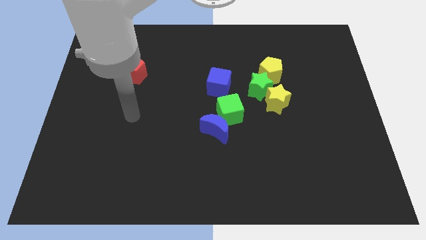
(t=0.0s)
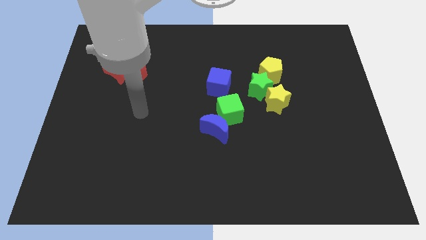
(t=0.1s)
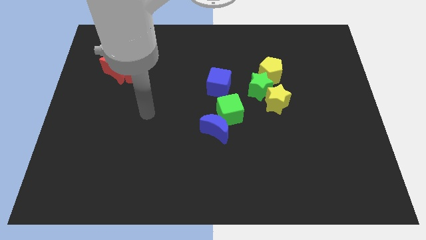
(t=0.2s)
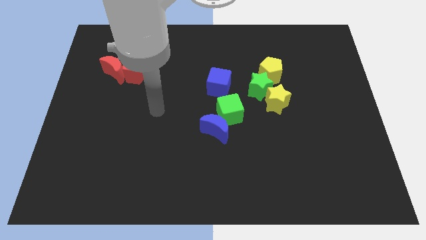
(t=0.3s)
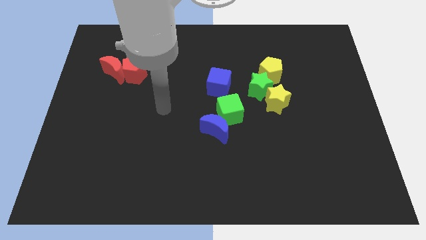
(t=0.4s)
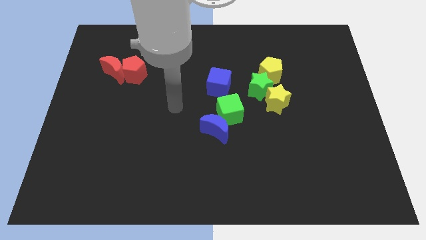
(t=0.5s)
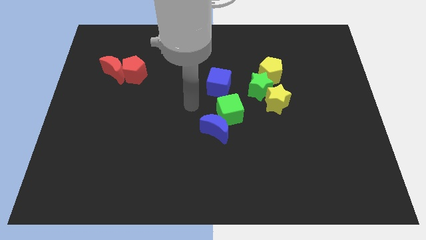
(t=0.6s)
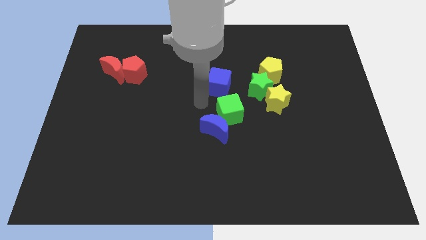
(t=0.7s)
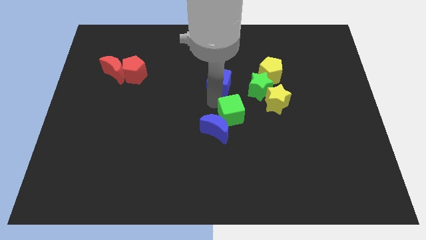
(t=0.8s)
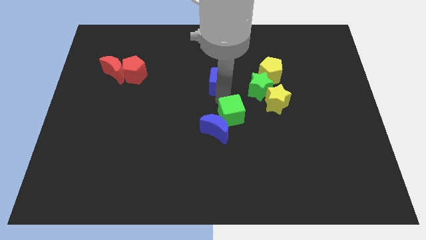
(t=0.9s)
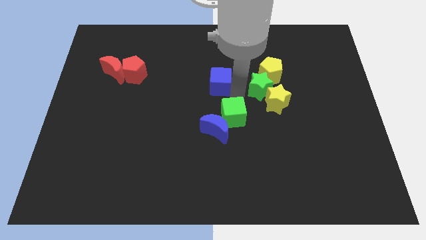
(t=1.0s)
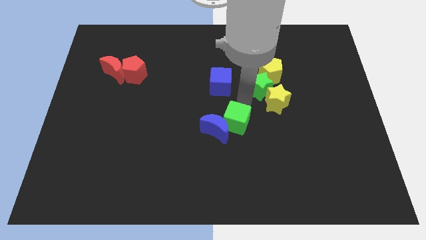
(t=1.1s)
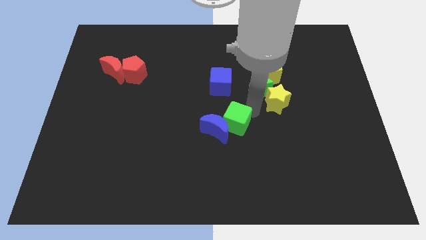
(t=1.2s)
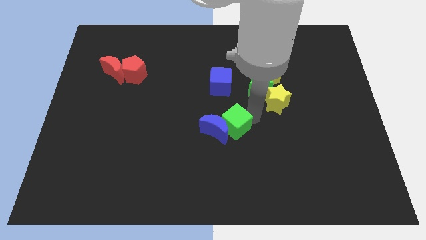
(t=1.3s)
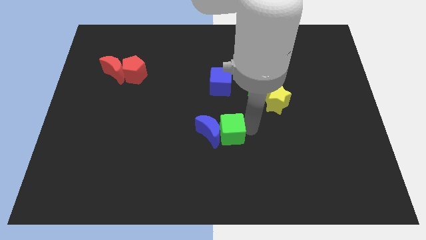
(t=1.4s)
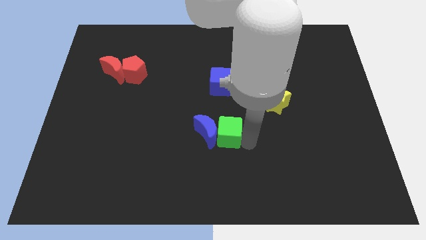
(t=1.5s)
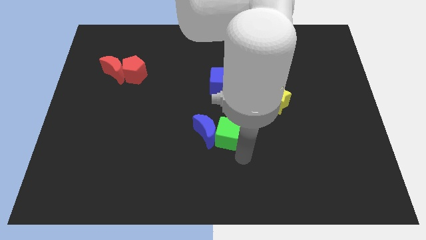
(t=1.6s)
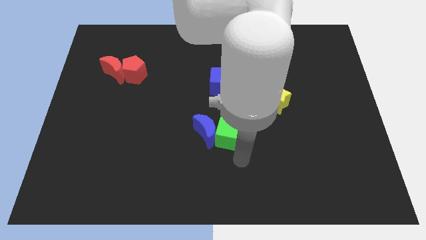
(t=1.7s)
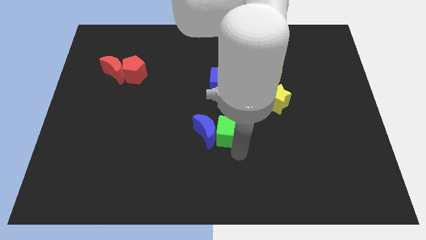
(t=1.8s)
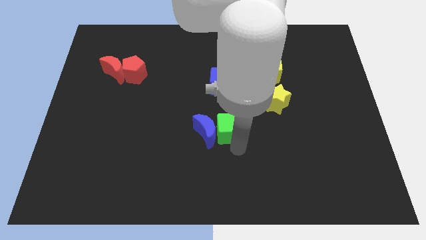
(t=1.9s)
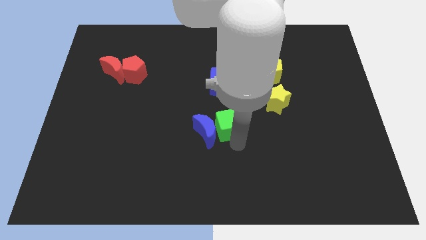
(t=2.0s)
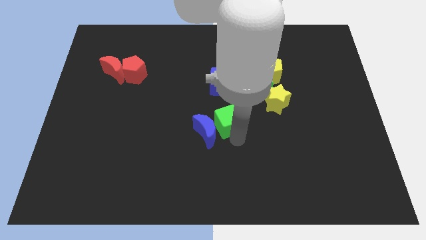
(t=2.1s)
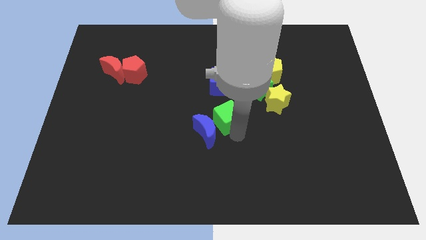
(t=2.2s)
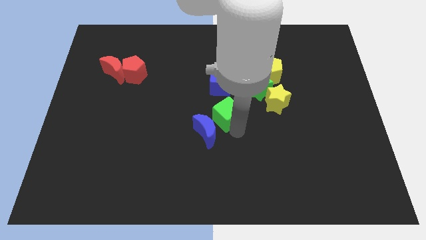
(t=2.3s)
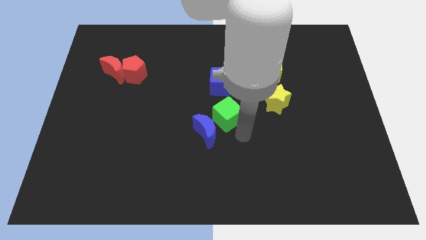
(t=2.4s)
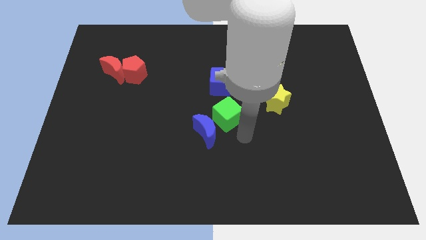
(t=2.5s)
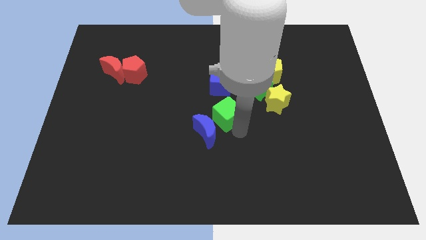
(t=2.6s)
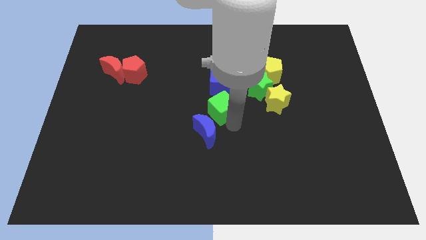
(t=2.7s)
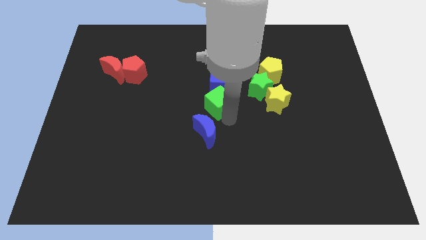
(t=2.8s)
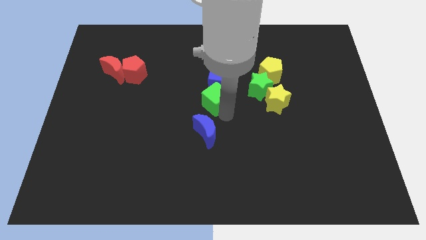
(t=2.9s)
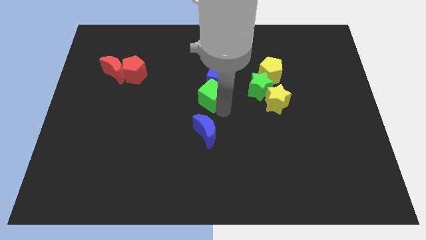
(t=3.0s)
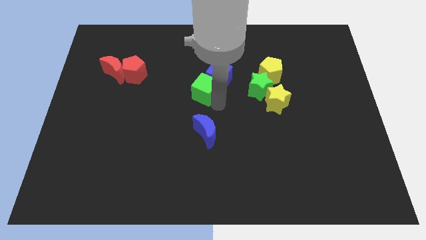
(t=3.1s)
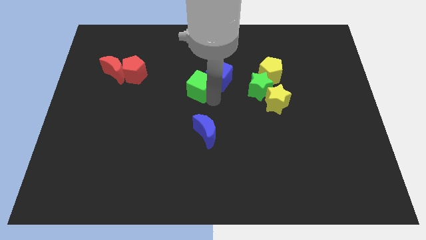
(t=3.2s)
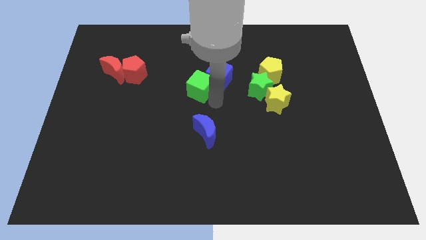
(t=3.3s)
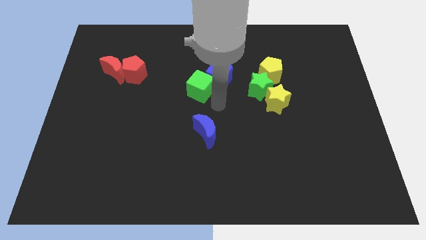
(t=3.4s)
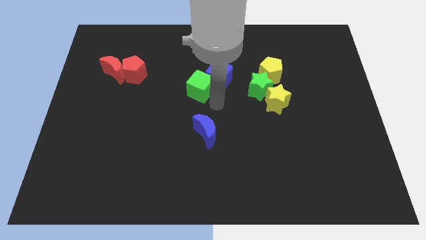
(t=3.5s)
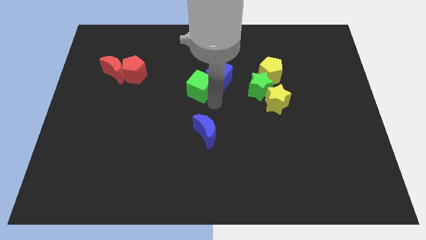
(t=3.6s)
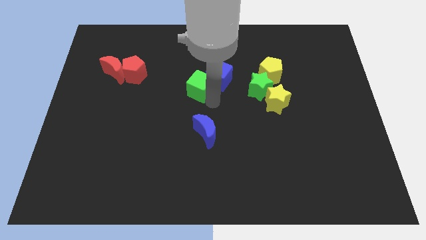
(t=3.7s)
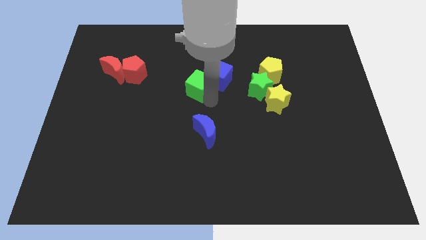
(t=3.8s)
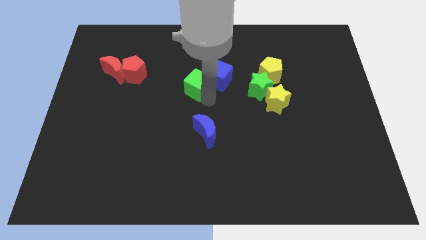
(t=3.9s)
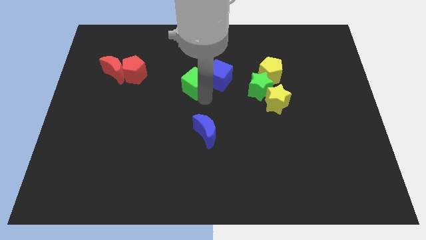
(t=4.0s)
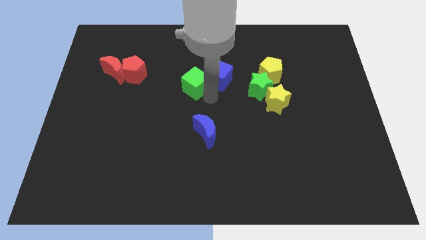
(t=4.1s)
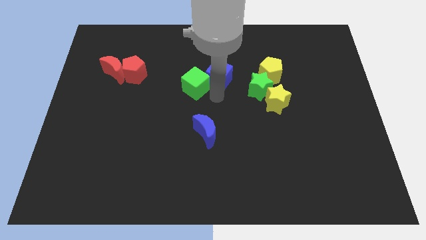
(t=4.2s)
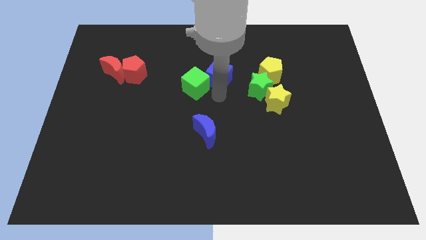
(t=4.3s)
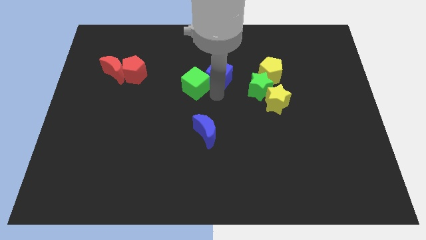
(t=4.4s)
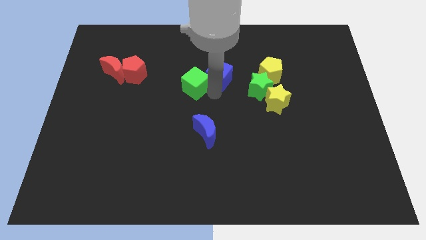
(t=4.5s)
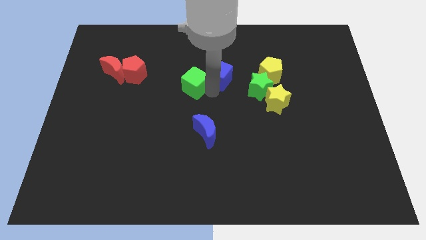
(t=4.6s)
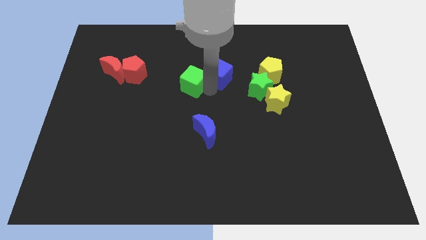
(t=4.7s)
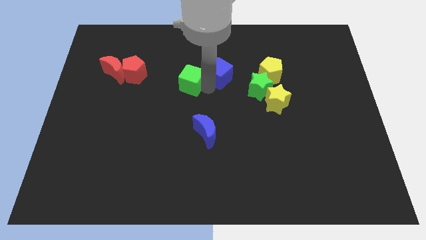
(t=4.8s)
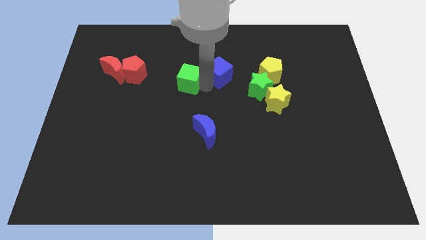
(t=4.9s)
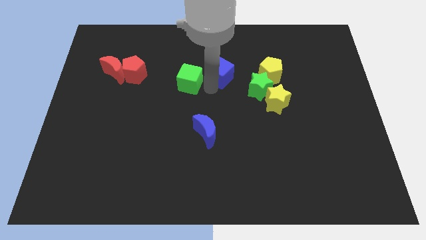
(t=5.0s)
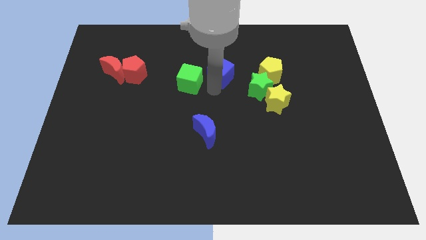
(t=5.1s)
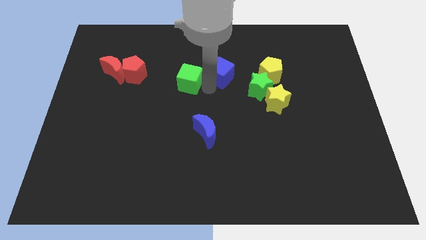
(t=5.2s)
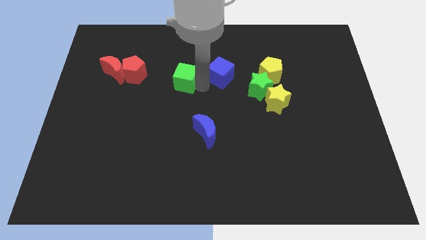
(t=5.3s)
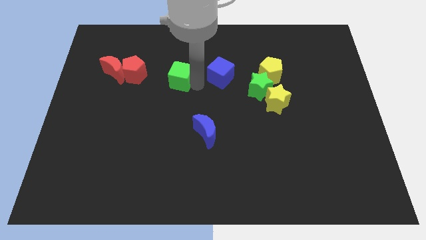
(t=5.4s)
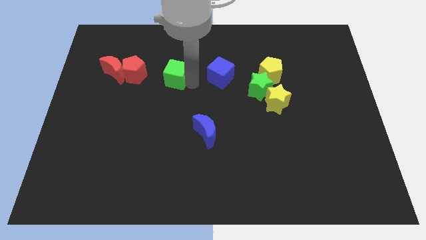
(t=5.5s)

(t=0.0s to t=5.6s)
put the green cube to the right of the red moon

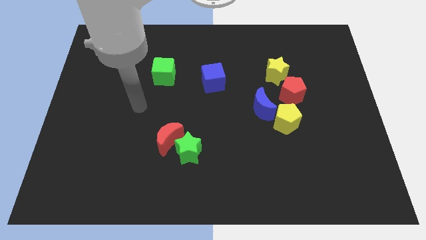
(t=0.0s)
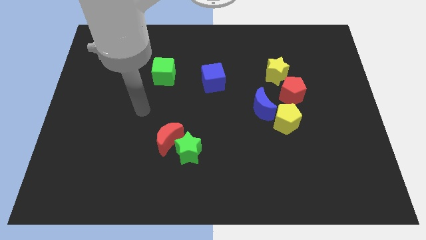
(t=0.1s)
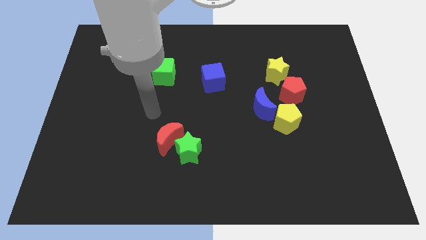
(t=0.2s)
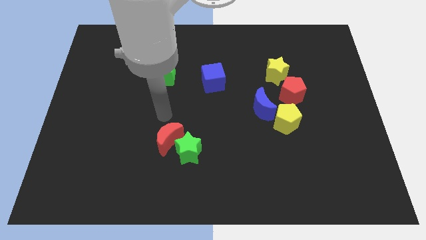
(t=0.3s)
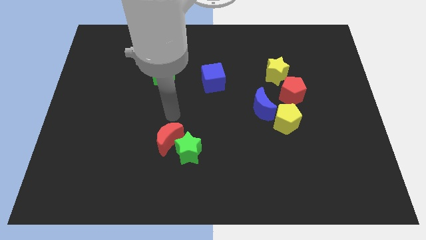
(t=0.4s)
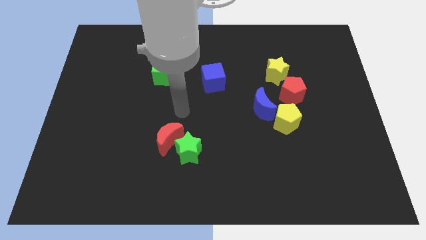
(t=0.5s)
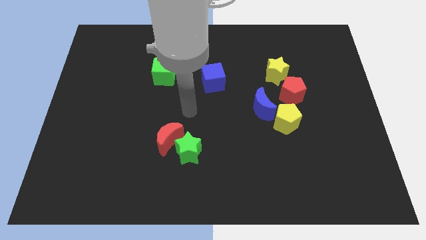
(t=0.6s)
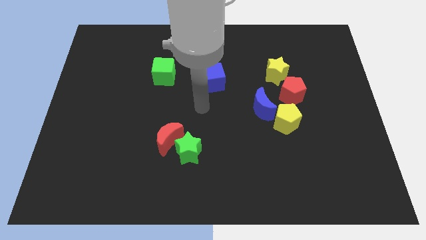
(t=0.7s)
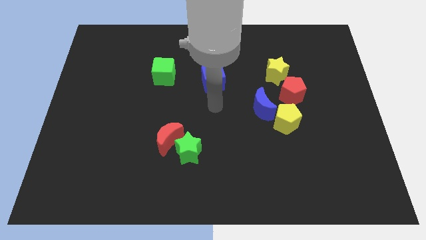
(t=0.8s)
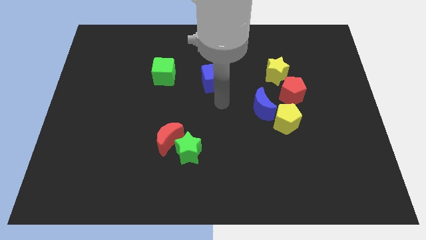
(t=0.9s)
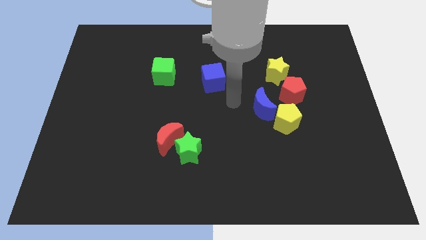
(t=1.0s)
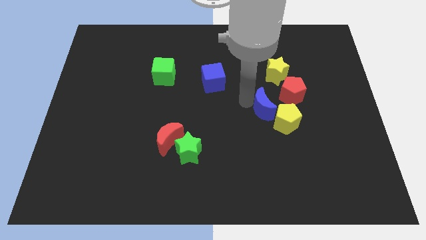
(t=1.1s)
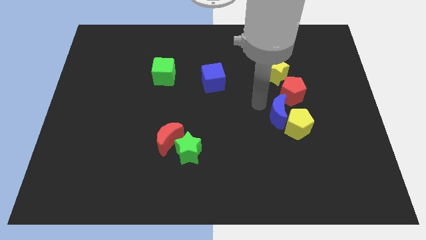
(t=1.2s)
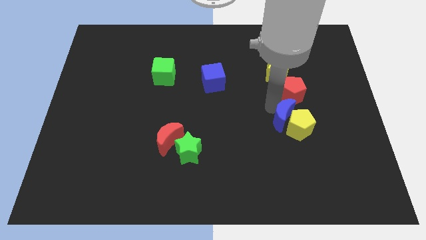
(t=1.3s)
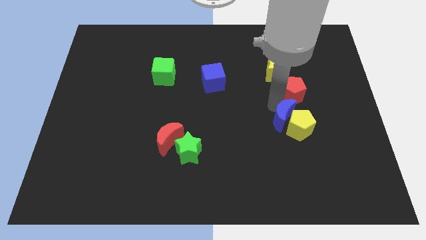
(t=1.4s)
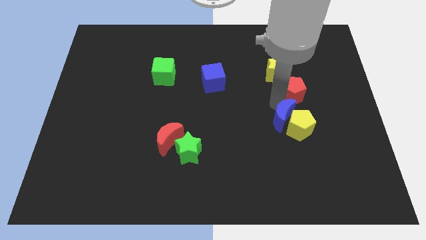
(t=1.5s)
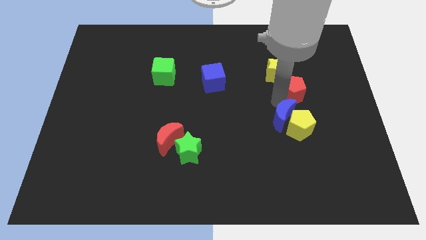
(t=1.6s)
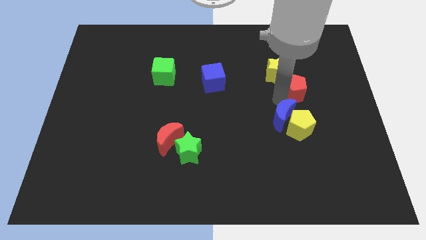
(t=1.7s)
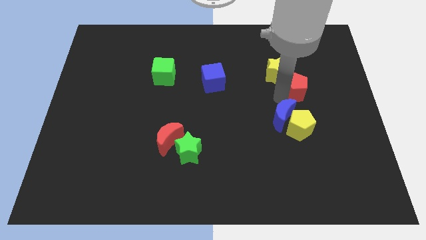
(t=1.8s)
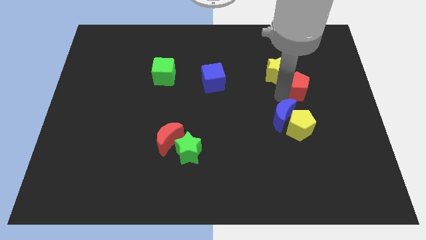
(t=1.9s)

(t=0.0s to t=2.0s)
push the red pentagon to the right side of the yellow star
